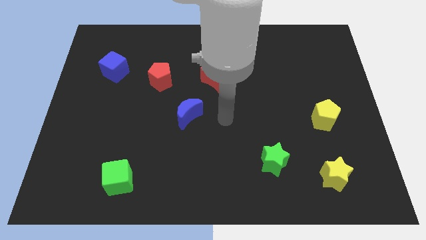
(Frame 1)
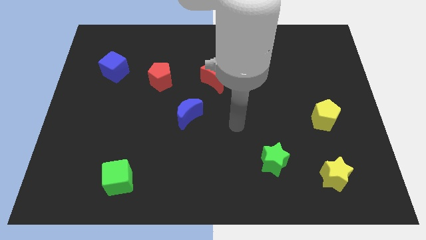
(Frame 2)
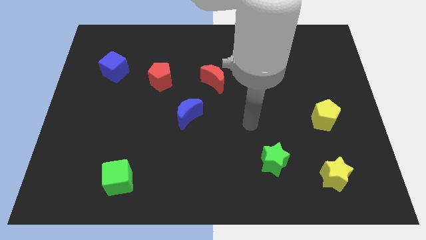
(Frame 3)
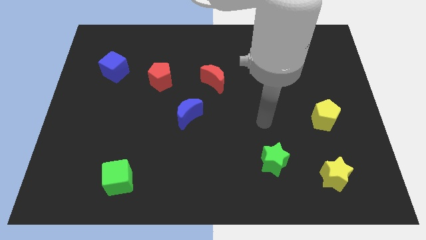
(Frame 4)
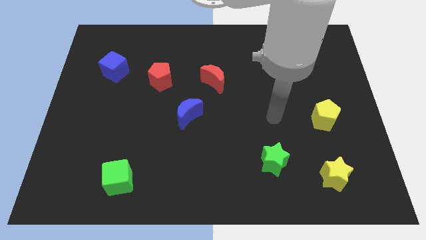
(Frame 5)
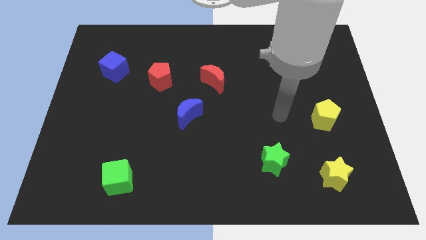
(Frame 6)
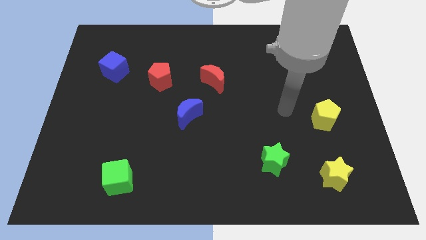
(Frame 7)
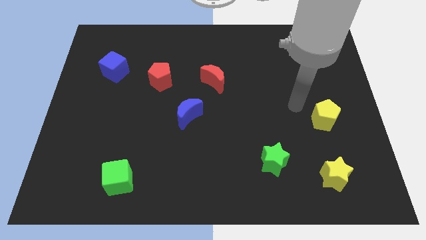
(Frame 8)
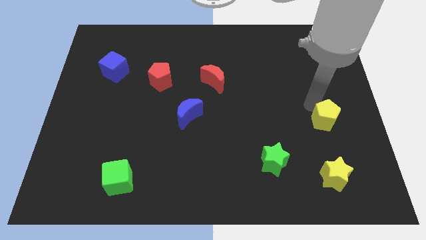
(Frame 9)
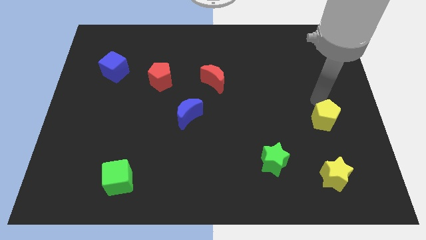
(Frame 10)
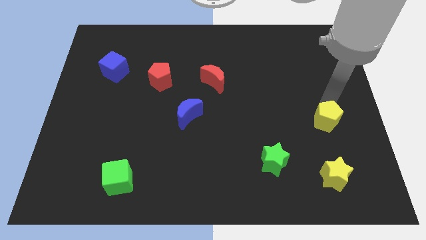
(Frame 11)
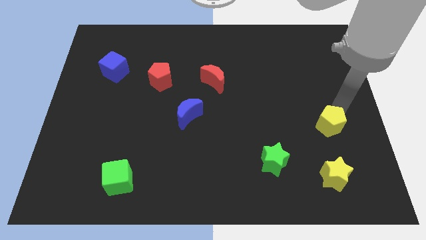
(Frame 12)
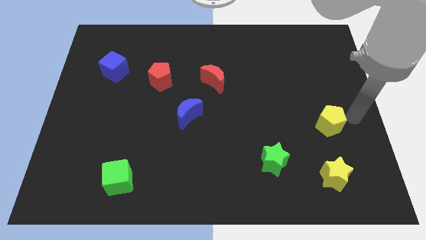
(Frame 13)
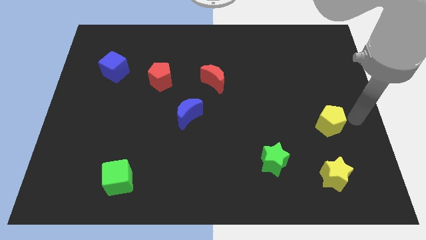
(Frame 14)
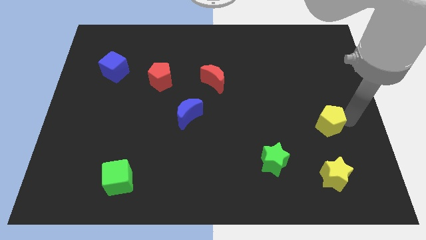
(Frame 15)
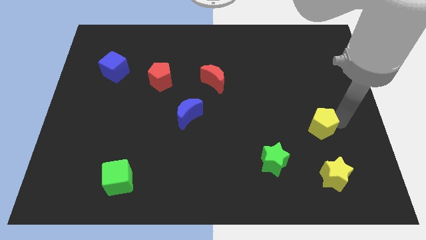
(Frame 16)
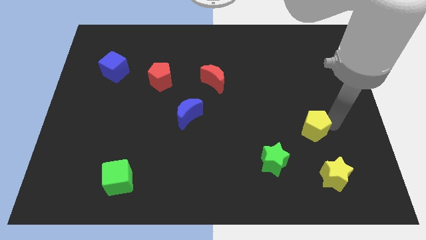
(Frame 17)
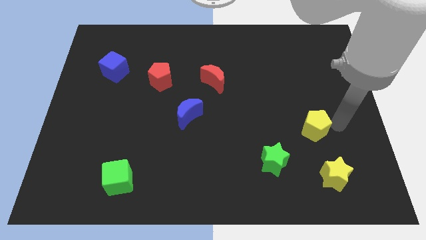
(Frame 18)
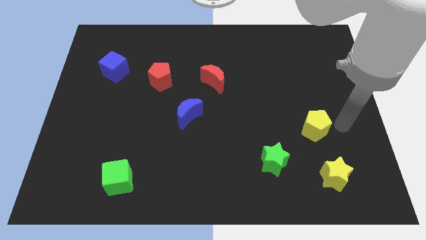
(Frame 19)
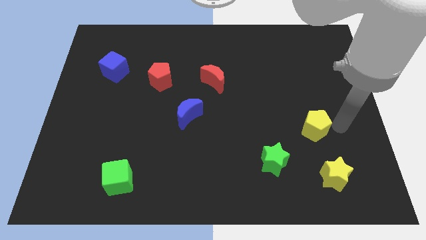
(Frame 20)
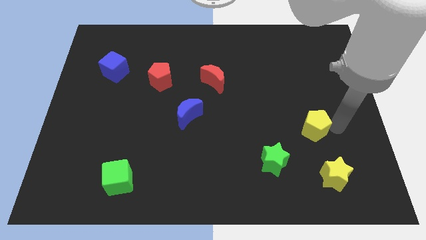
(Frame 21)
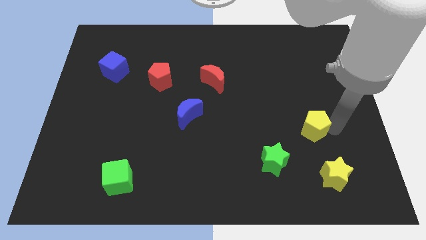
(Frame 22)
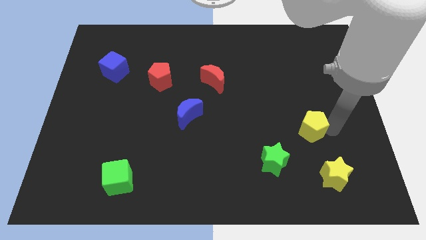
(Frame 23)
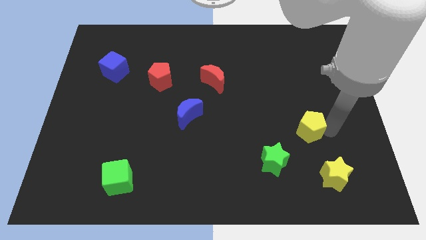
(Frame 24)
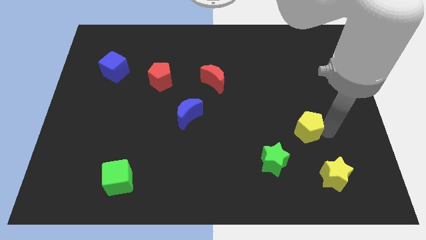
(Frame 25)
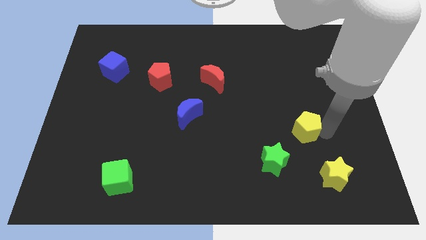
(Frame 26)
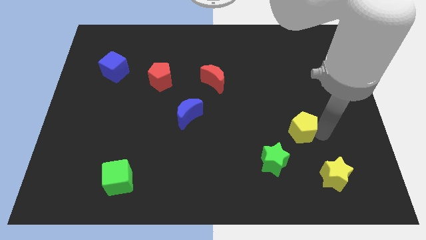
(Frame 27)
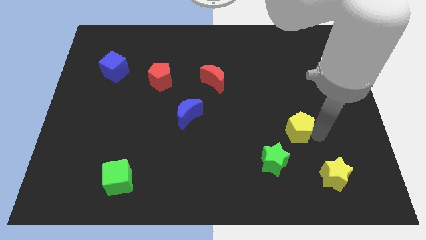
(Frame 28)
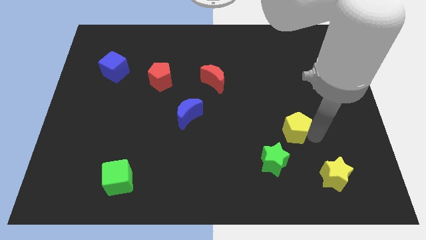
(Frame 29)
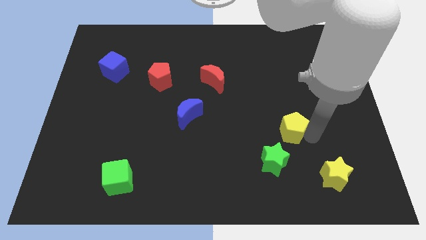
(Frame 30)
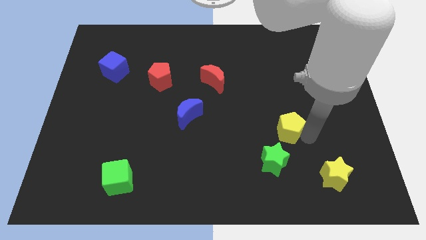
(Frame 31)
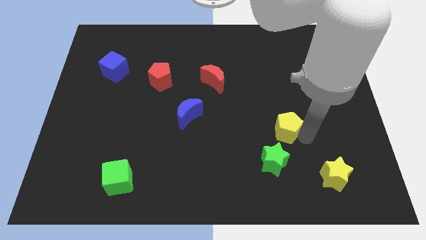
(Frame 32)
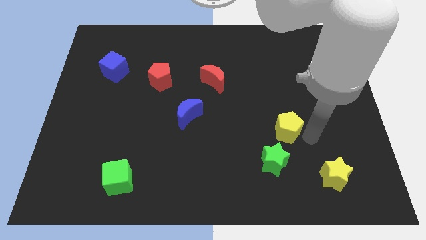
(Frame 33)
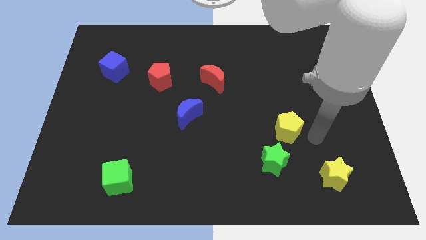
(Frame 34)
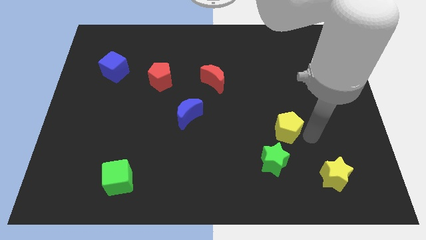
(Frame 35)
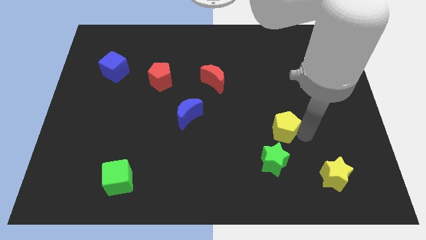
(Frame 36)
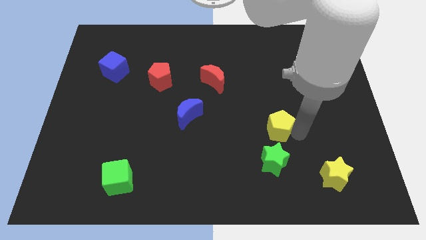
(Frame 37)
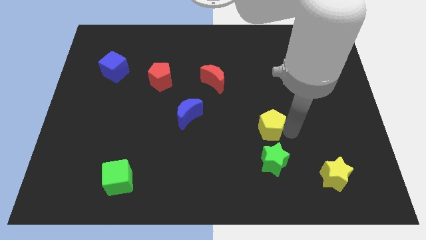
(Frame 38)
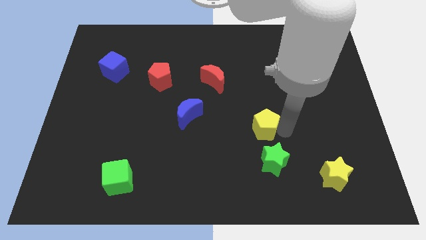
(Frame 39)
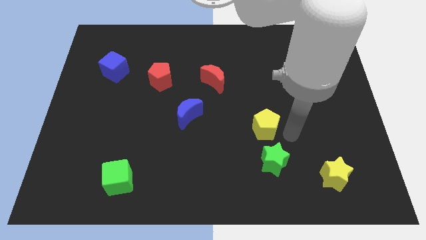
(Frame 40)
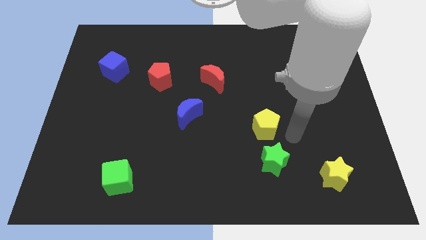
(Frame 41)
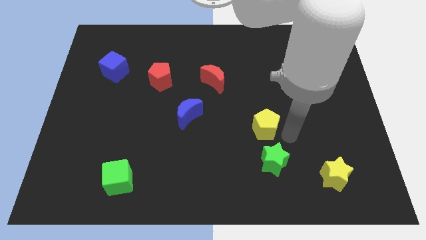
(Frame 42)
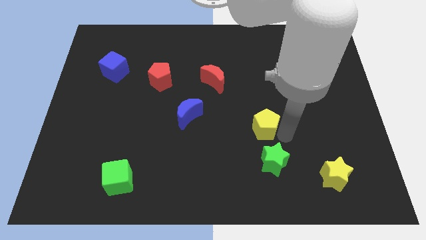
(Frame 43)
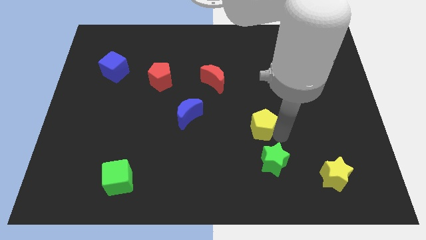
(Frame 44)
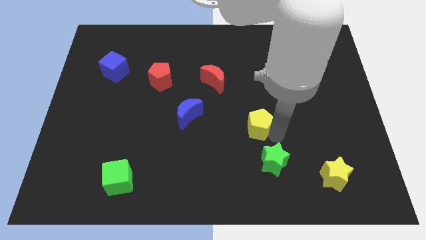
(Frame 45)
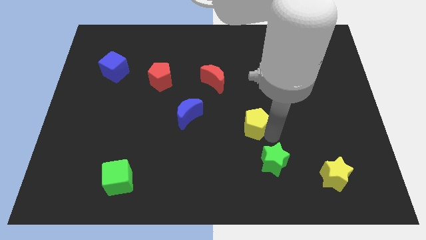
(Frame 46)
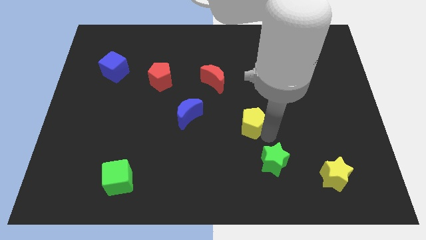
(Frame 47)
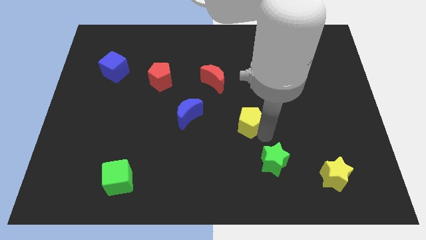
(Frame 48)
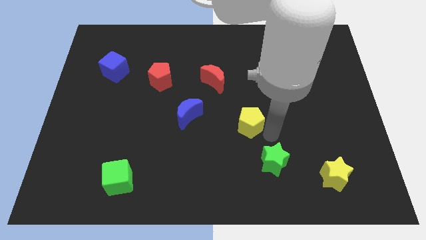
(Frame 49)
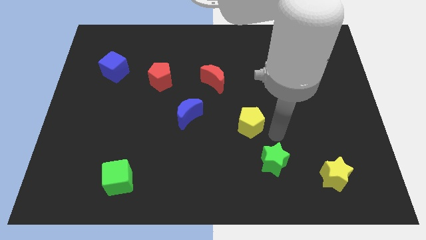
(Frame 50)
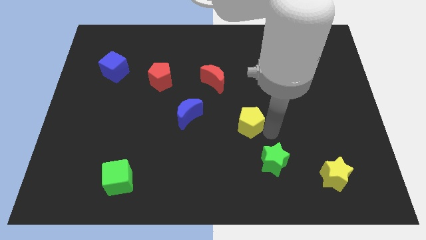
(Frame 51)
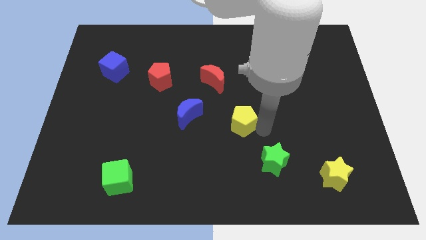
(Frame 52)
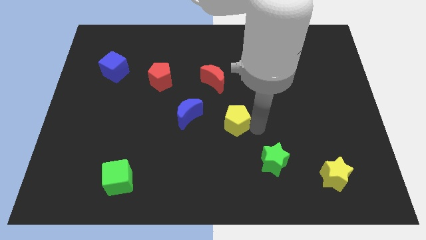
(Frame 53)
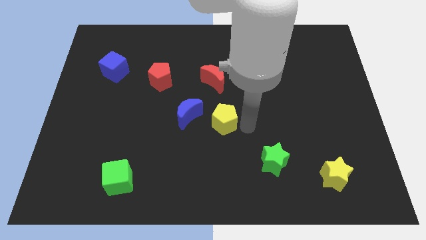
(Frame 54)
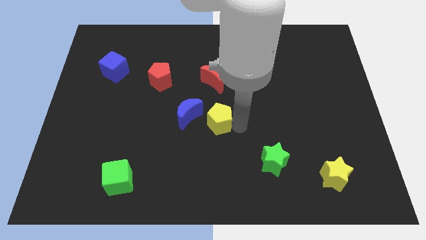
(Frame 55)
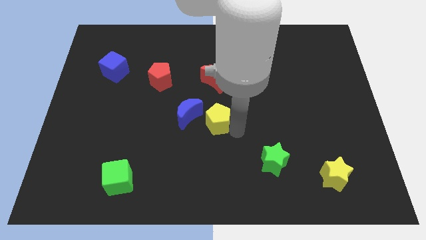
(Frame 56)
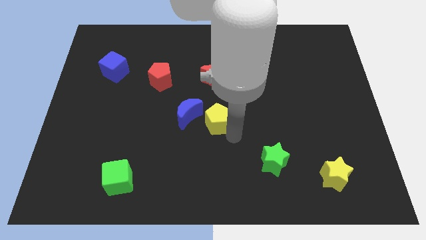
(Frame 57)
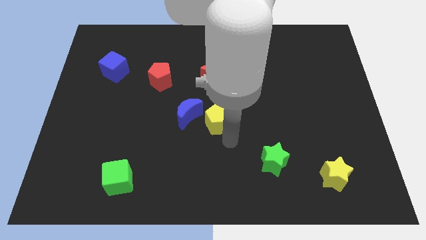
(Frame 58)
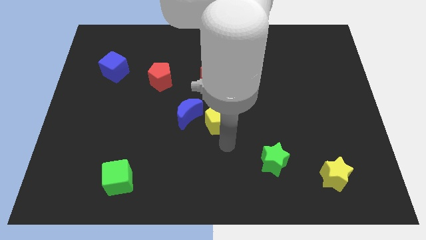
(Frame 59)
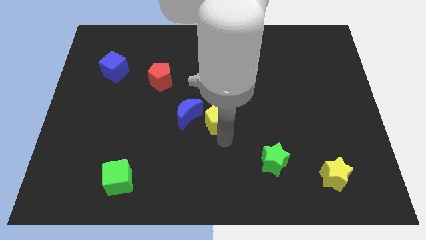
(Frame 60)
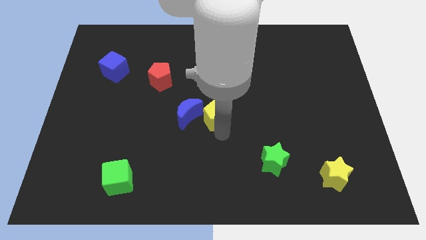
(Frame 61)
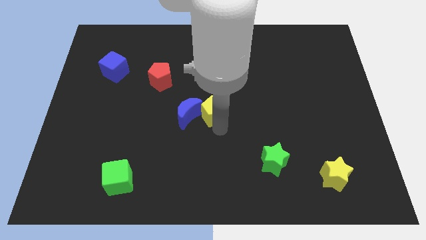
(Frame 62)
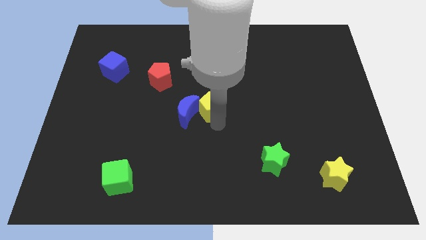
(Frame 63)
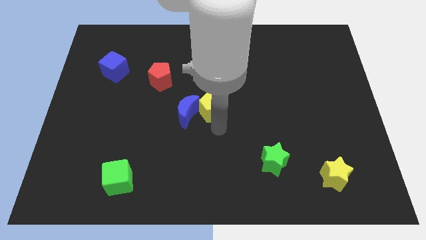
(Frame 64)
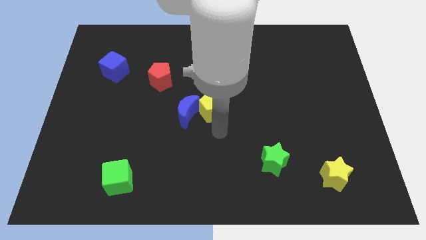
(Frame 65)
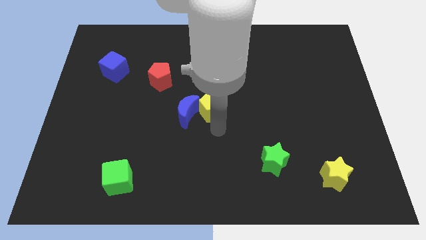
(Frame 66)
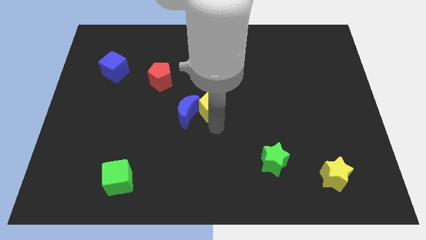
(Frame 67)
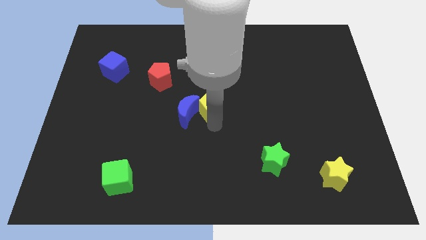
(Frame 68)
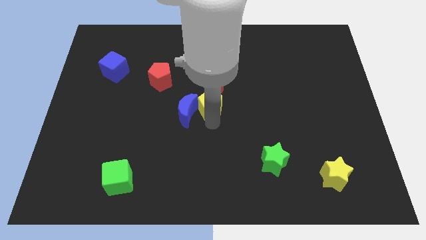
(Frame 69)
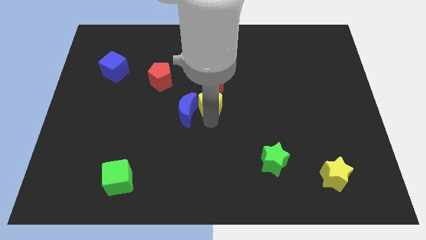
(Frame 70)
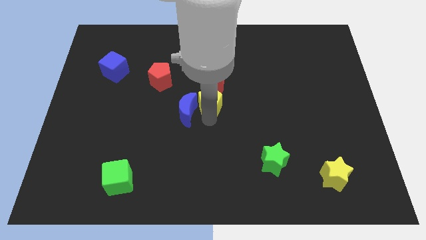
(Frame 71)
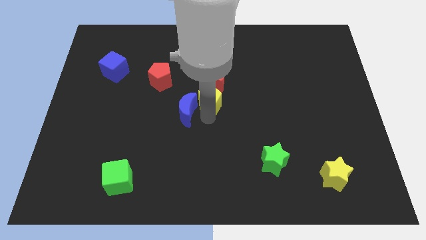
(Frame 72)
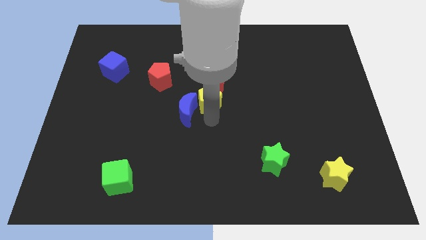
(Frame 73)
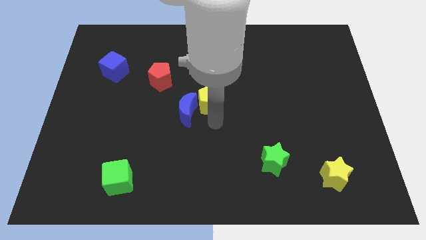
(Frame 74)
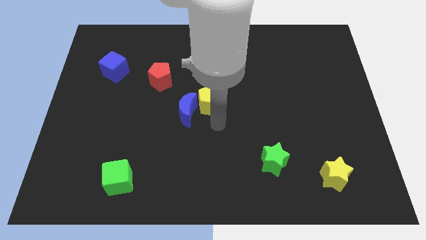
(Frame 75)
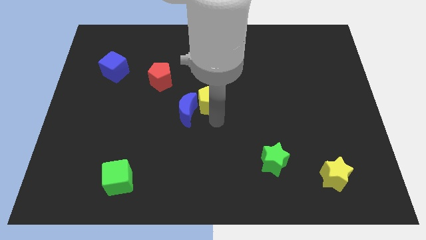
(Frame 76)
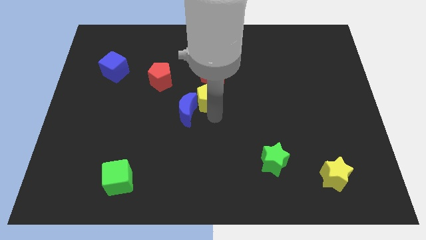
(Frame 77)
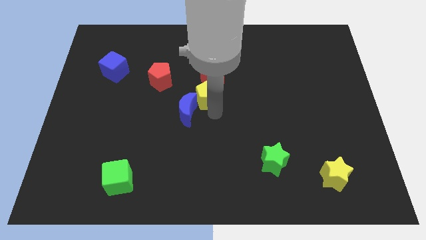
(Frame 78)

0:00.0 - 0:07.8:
move the yellow pentagon to the top of the blue moon
